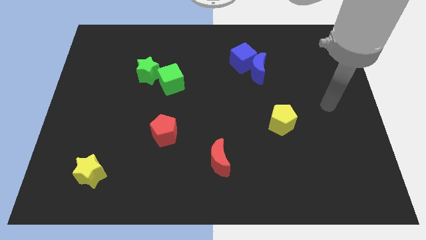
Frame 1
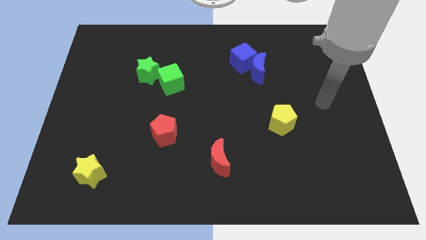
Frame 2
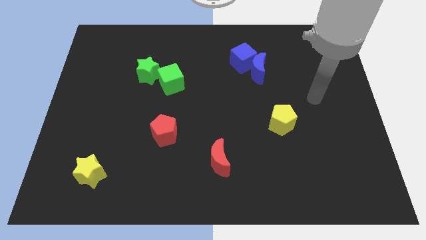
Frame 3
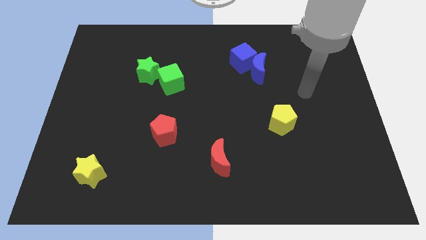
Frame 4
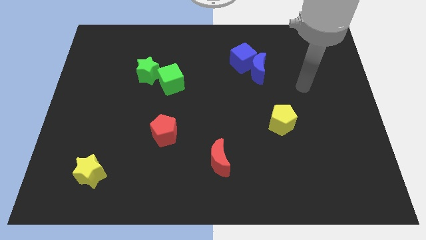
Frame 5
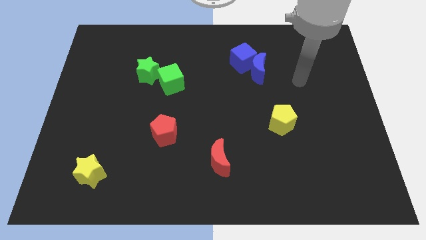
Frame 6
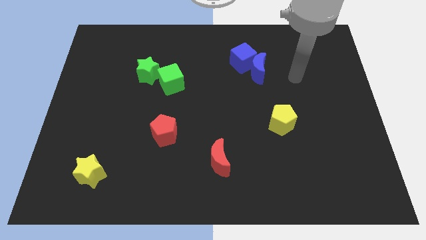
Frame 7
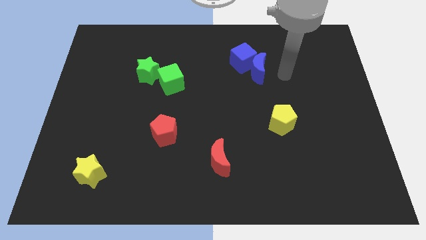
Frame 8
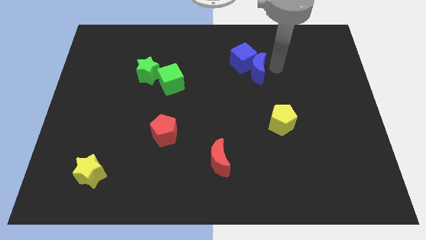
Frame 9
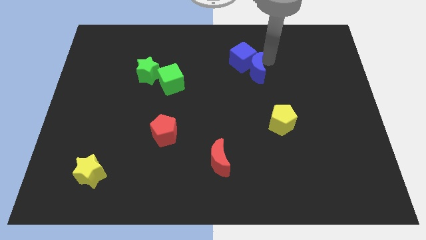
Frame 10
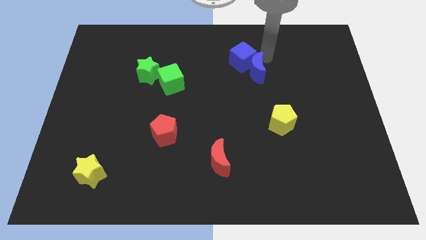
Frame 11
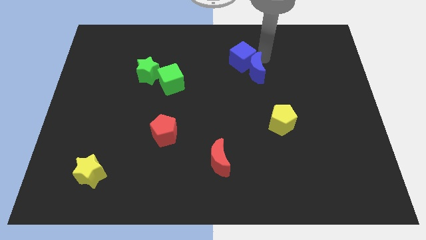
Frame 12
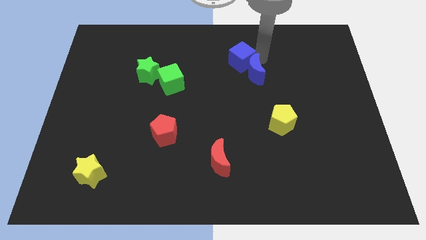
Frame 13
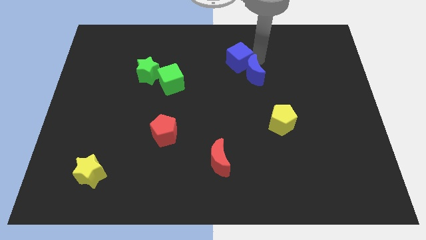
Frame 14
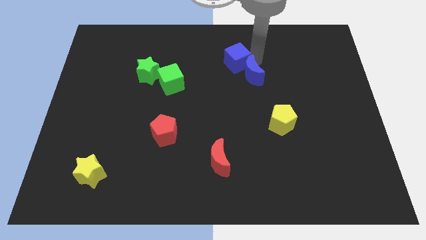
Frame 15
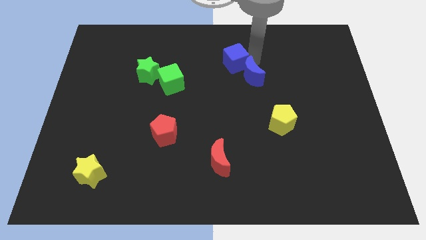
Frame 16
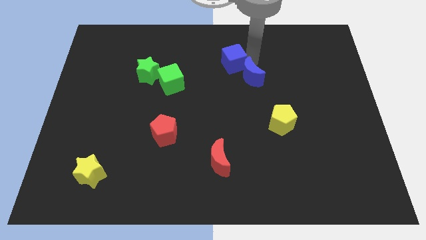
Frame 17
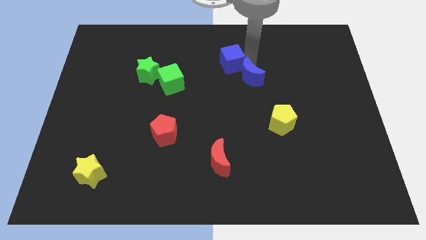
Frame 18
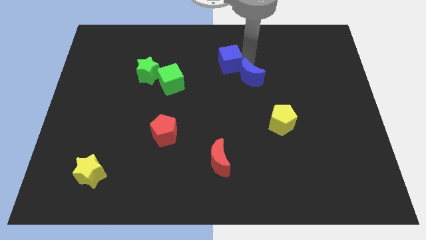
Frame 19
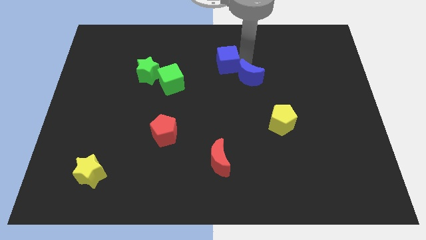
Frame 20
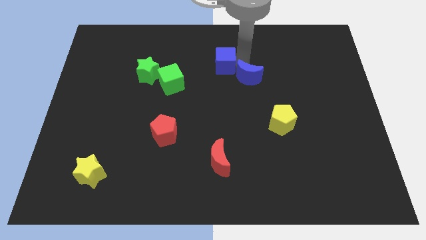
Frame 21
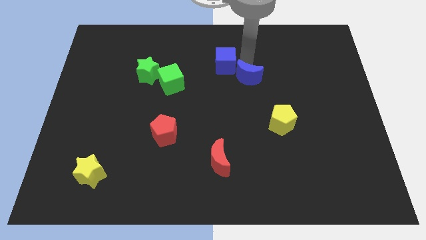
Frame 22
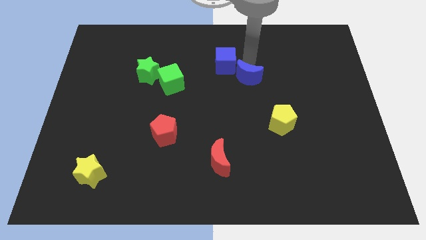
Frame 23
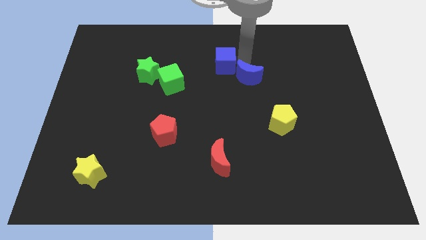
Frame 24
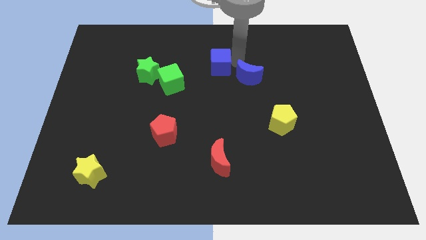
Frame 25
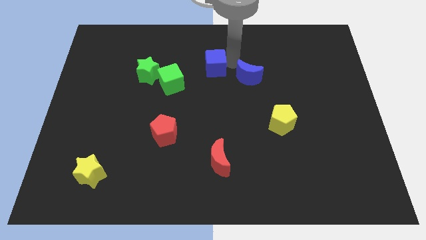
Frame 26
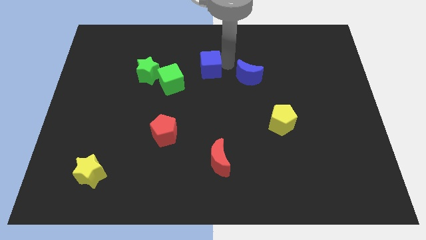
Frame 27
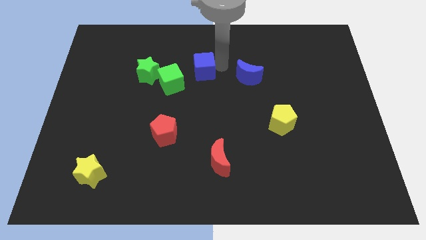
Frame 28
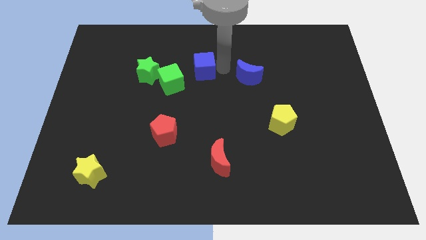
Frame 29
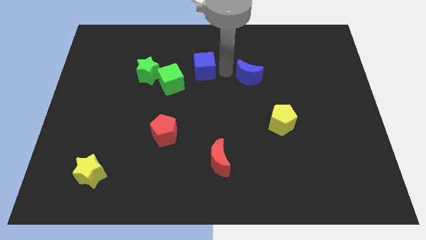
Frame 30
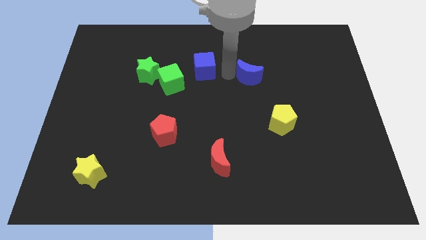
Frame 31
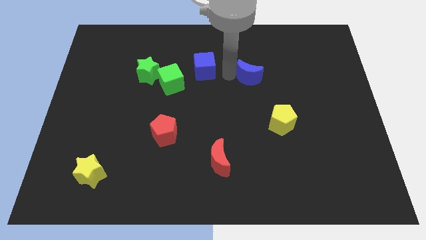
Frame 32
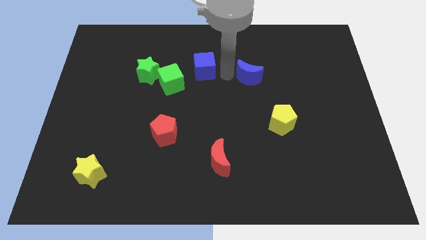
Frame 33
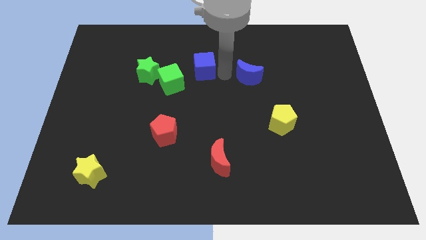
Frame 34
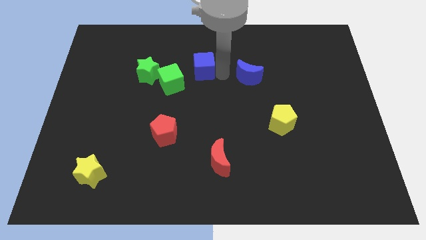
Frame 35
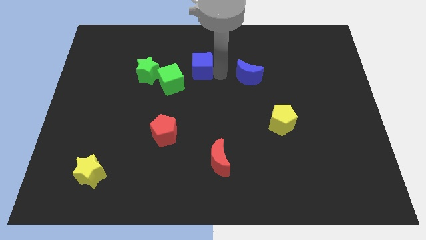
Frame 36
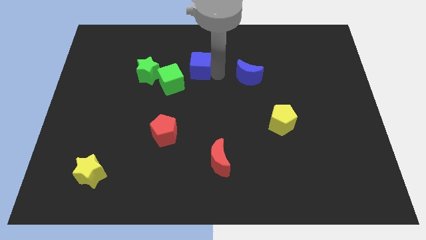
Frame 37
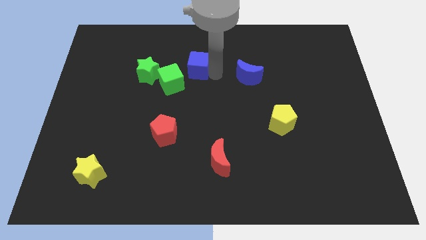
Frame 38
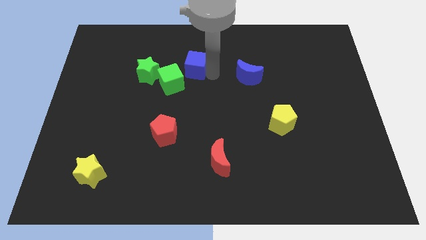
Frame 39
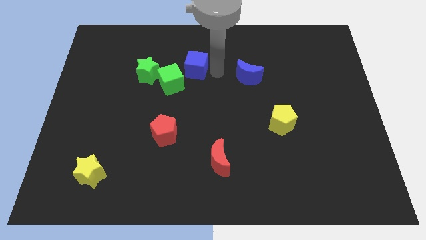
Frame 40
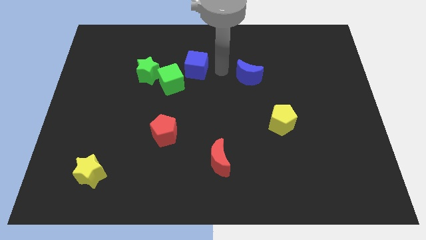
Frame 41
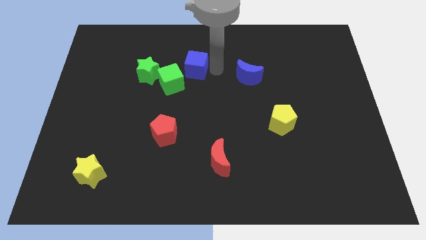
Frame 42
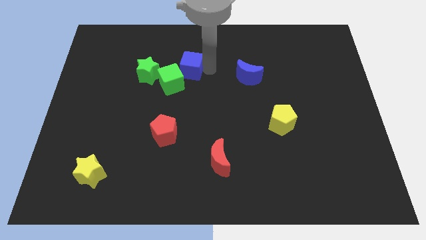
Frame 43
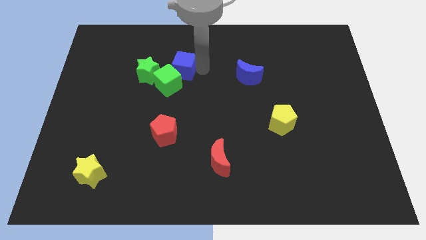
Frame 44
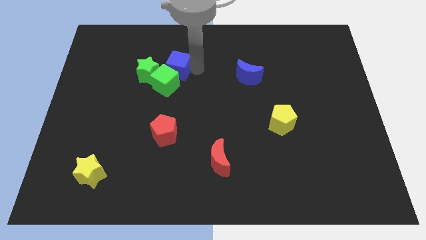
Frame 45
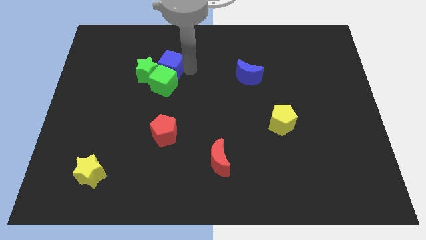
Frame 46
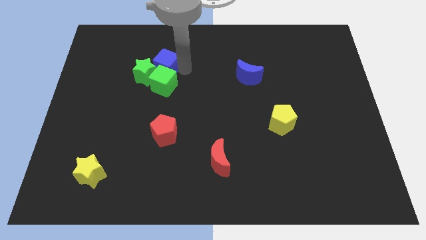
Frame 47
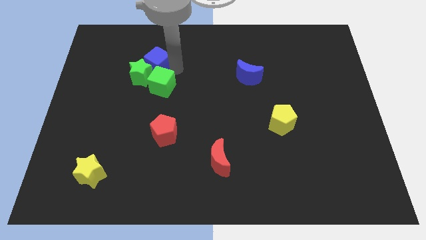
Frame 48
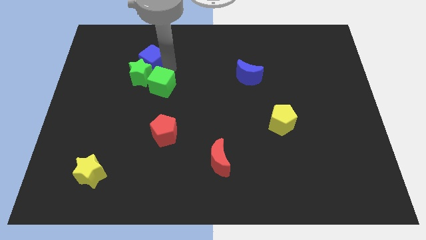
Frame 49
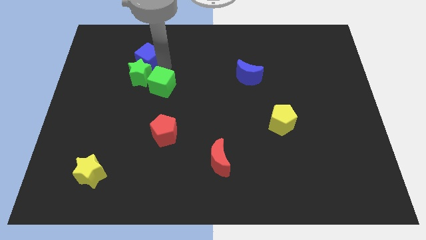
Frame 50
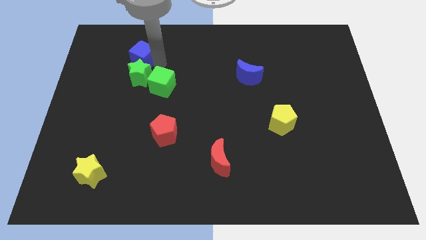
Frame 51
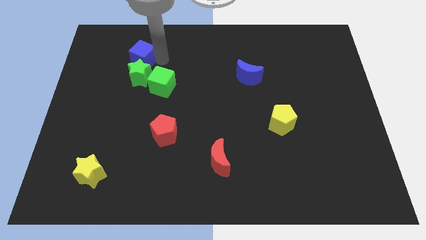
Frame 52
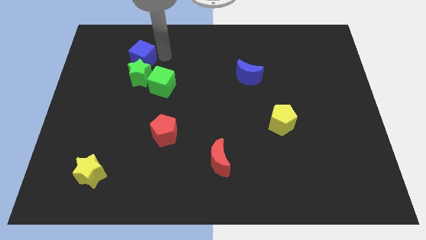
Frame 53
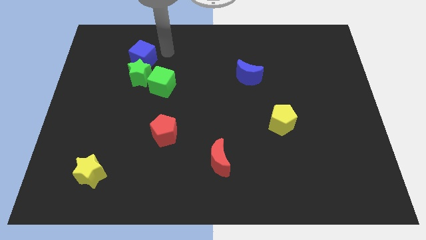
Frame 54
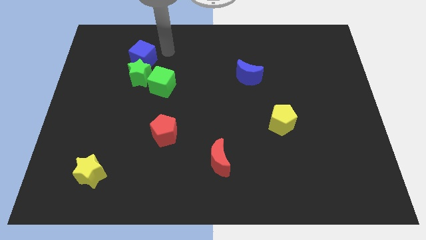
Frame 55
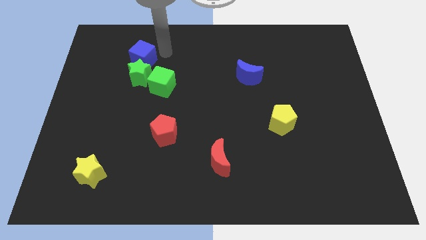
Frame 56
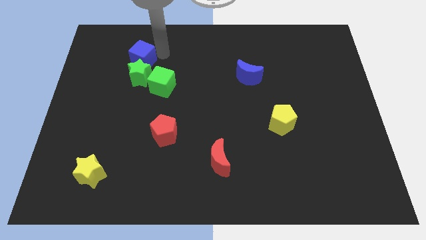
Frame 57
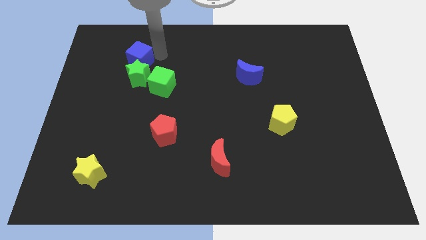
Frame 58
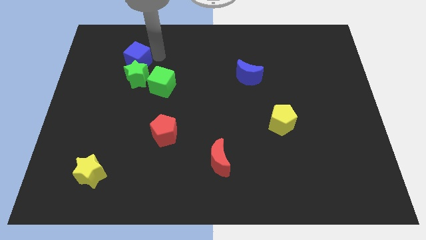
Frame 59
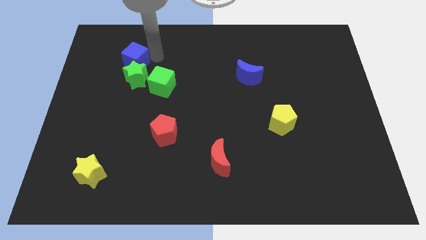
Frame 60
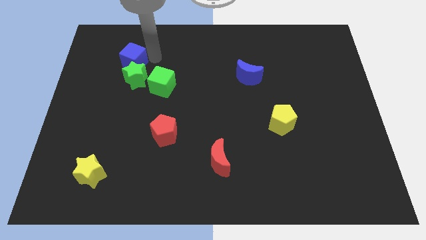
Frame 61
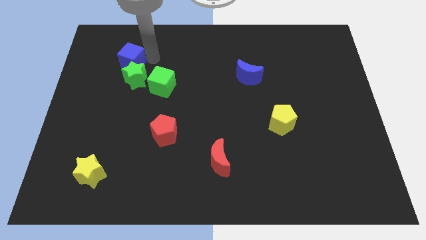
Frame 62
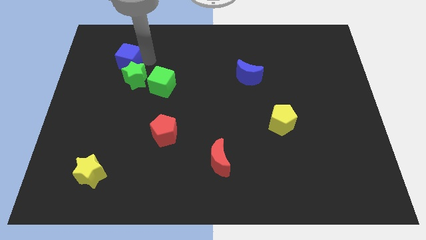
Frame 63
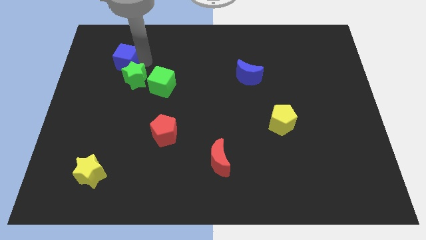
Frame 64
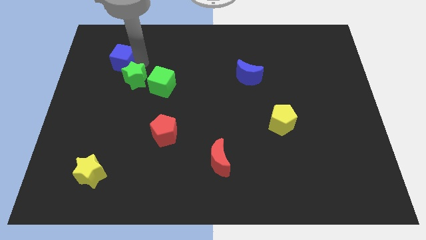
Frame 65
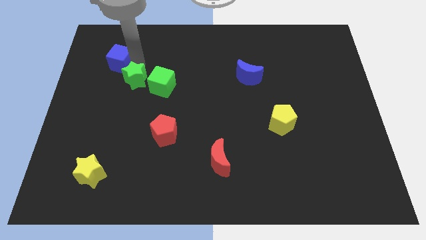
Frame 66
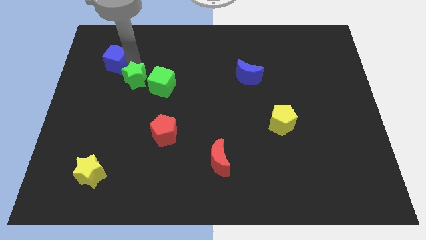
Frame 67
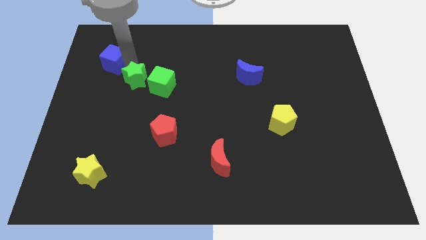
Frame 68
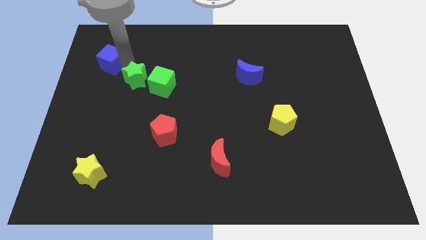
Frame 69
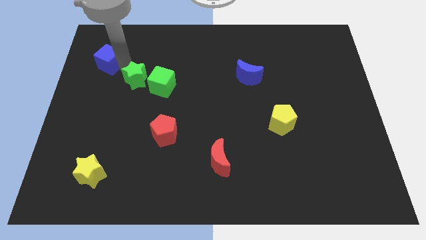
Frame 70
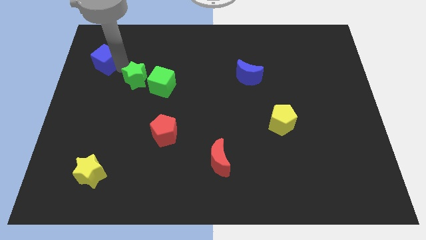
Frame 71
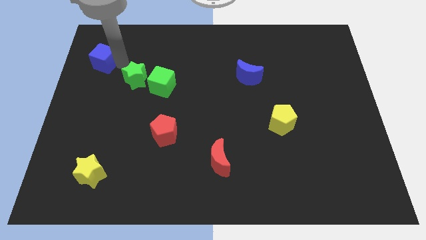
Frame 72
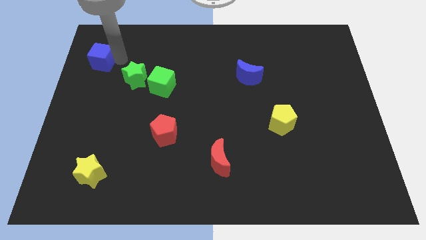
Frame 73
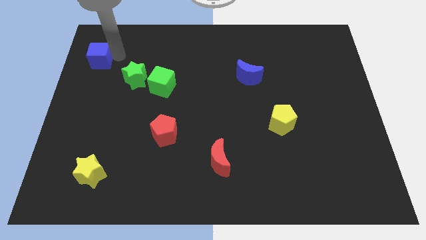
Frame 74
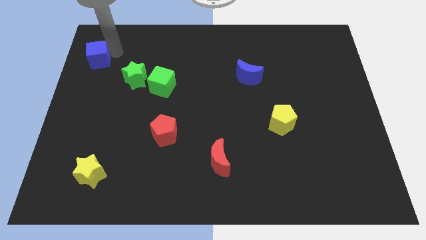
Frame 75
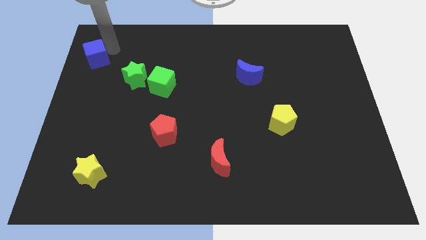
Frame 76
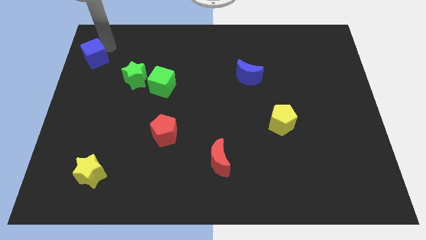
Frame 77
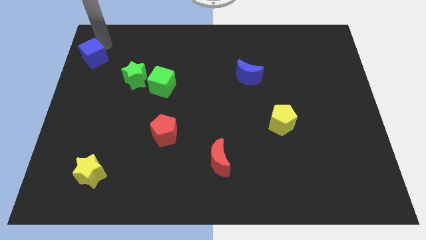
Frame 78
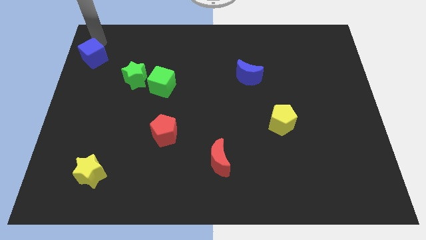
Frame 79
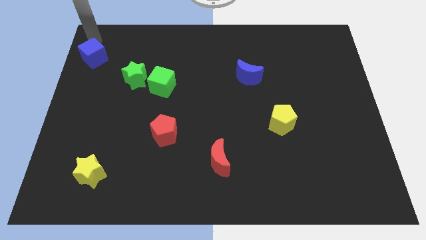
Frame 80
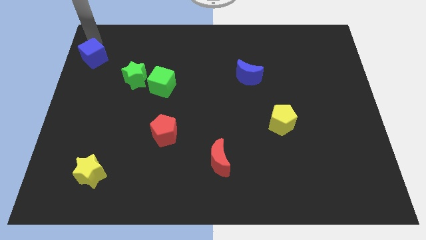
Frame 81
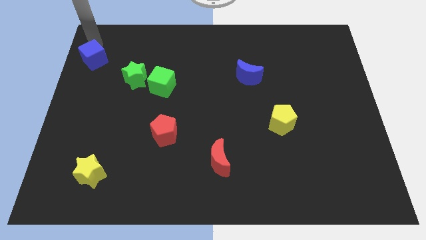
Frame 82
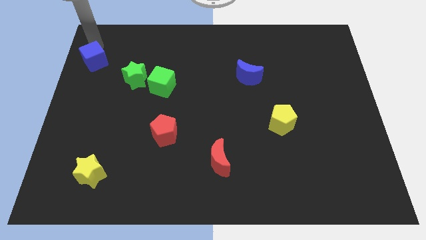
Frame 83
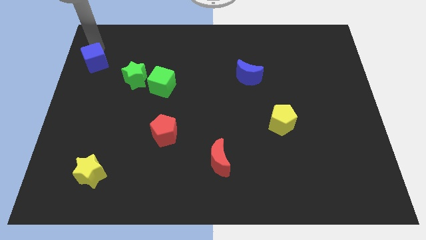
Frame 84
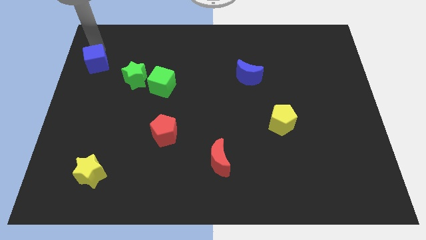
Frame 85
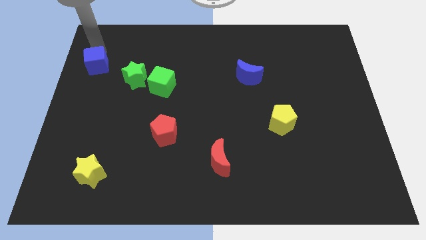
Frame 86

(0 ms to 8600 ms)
move the blue cube to the left of the green star
